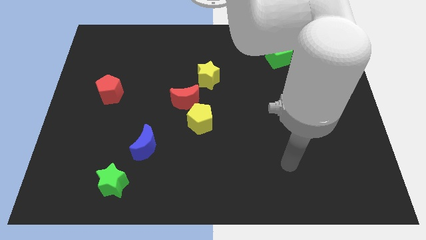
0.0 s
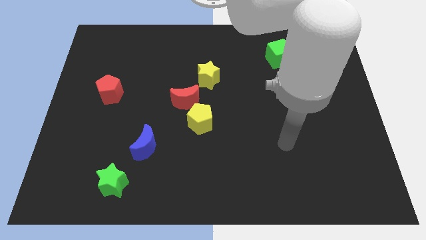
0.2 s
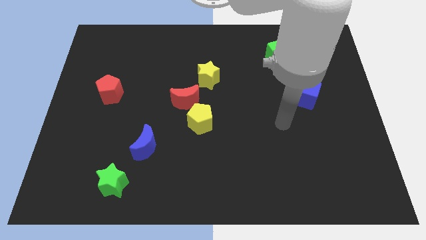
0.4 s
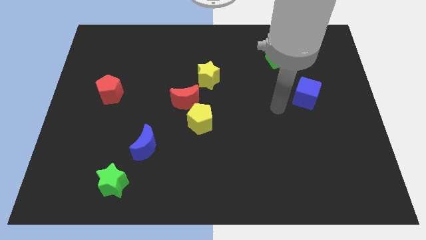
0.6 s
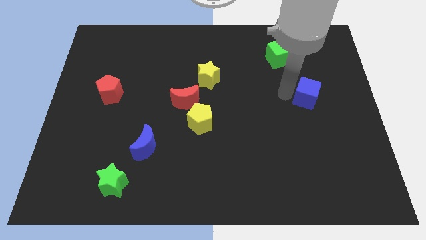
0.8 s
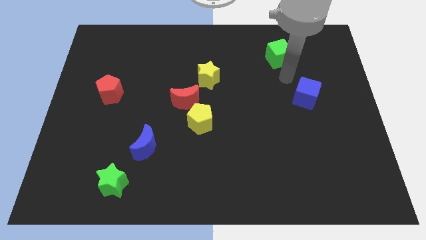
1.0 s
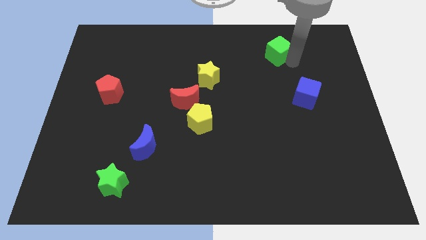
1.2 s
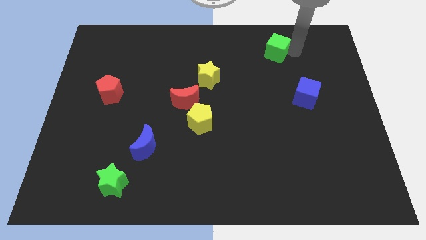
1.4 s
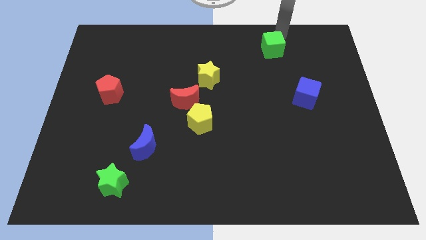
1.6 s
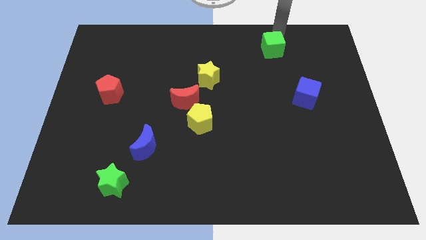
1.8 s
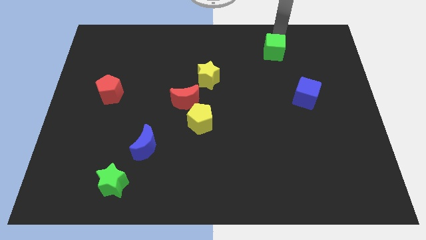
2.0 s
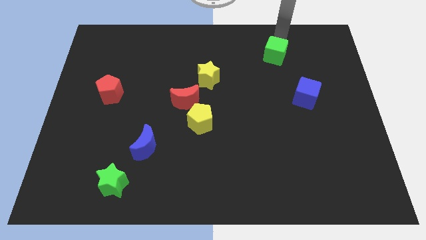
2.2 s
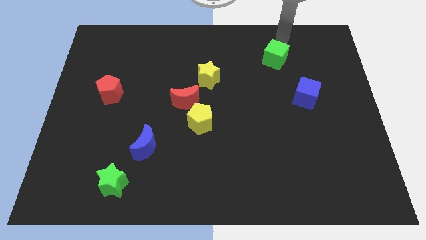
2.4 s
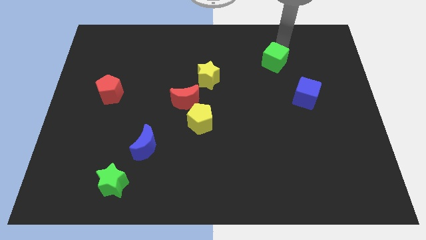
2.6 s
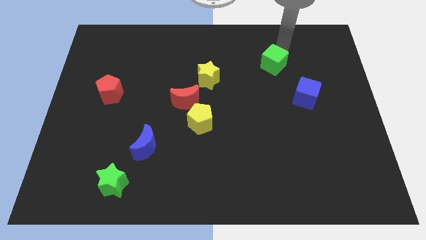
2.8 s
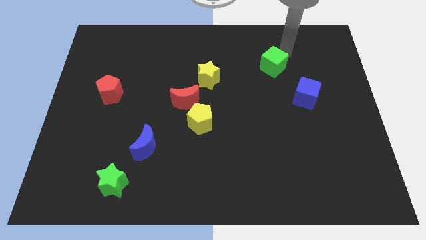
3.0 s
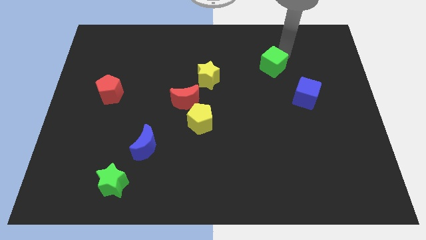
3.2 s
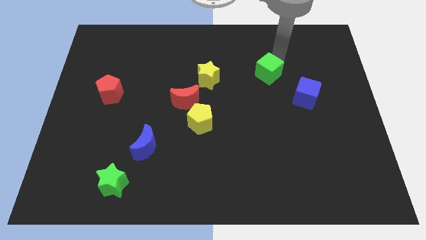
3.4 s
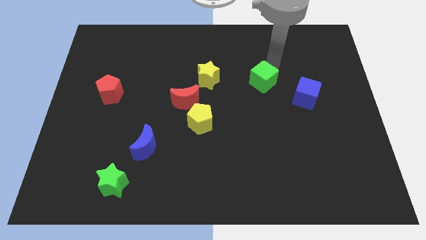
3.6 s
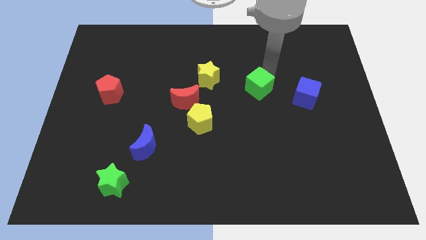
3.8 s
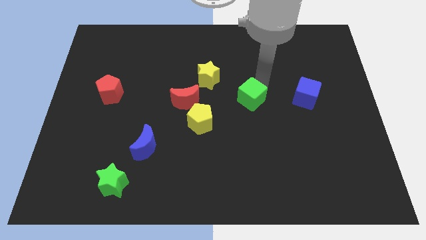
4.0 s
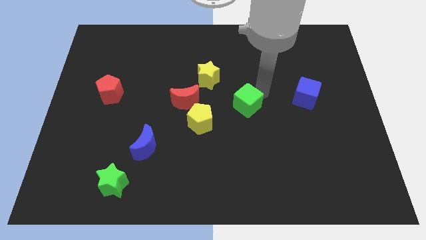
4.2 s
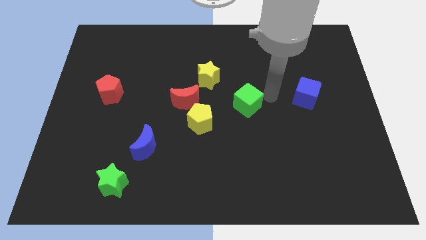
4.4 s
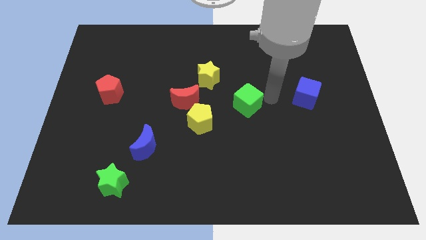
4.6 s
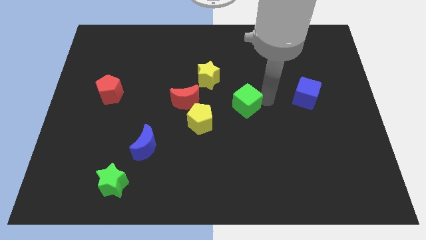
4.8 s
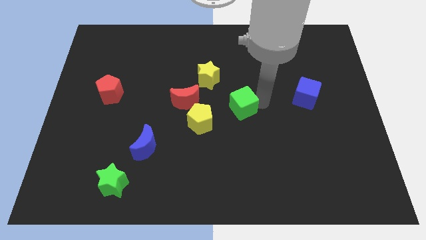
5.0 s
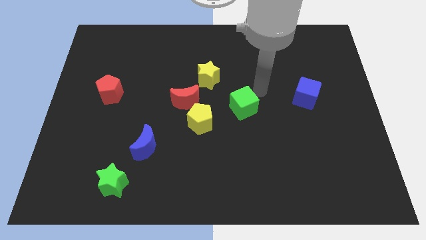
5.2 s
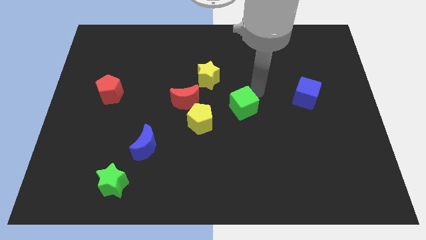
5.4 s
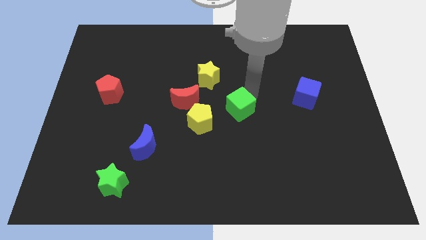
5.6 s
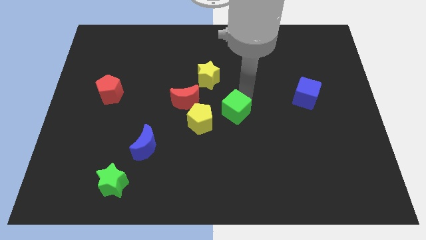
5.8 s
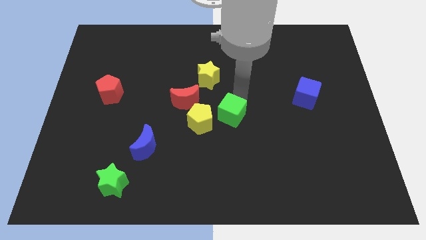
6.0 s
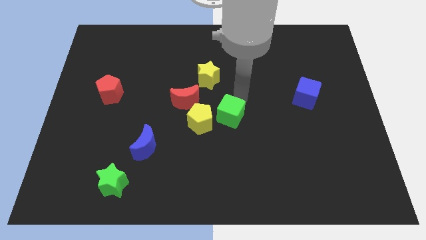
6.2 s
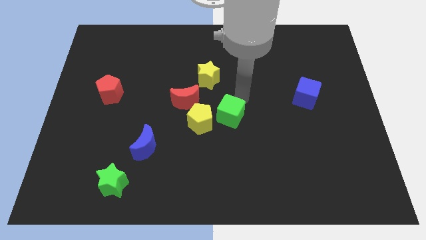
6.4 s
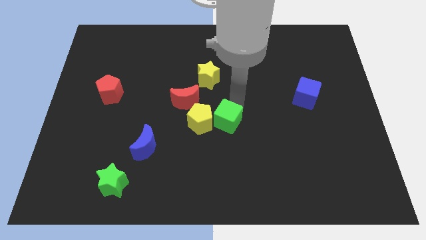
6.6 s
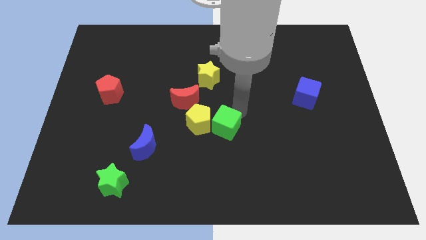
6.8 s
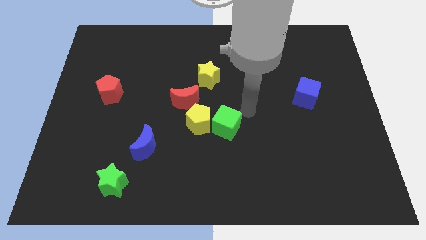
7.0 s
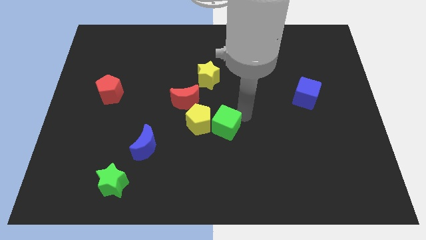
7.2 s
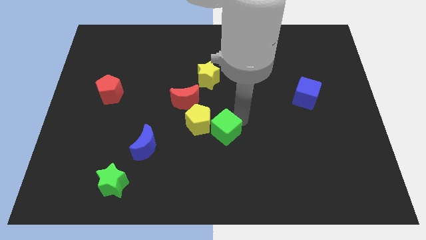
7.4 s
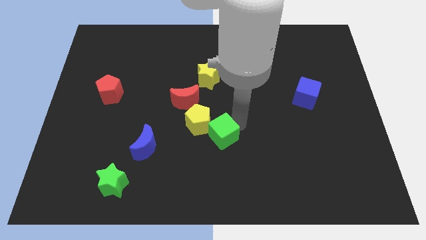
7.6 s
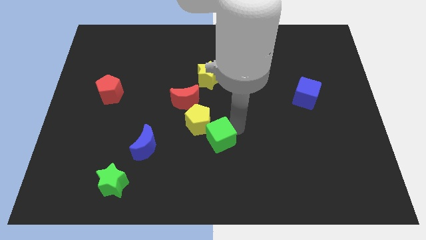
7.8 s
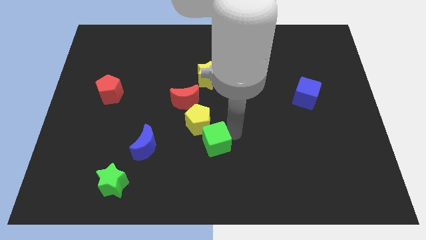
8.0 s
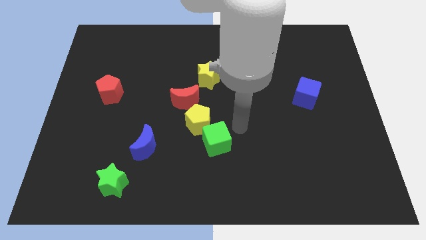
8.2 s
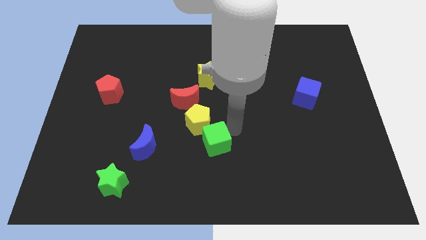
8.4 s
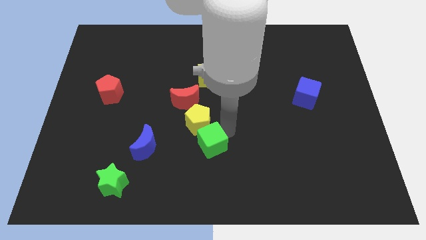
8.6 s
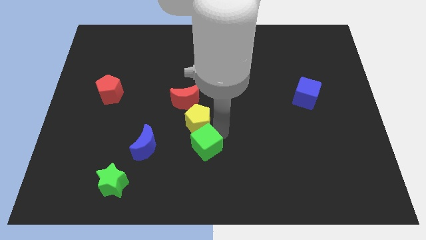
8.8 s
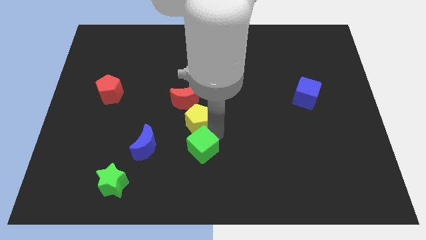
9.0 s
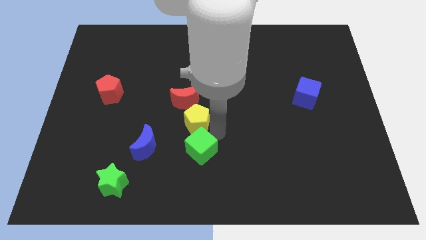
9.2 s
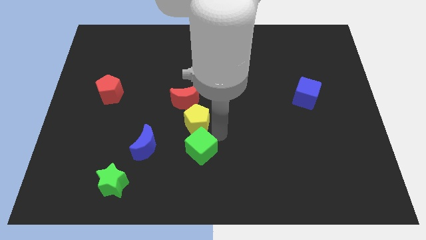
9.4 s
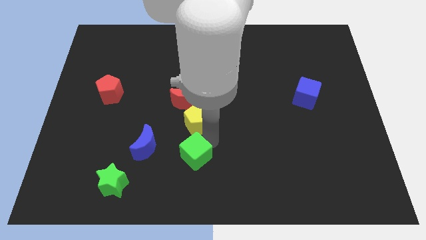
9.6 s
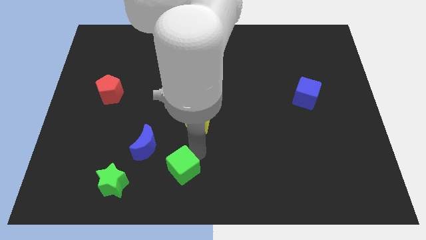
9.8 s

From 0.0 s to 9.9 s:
slide the green cube to the right of the green star

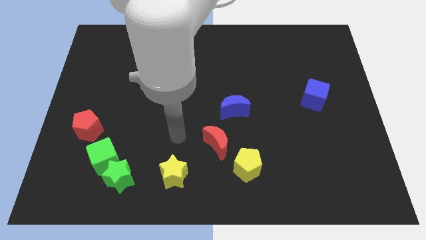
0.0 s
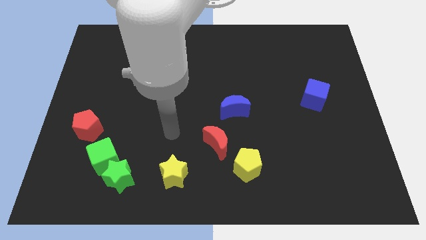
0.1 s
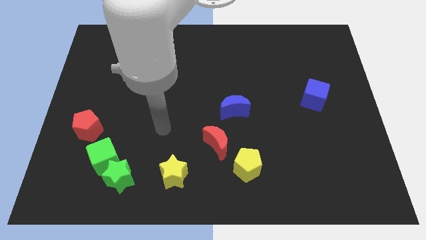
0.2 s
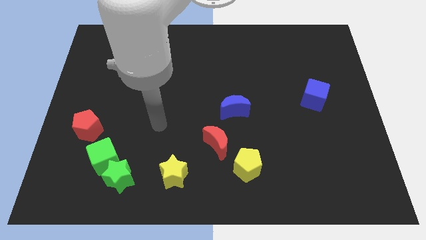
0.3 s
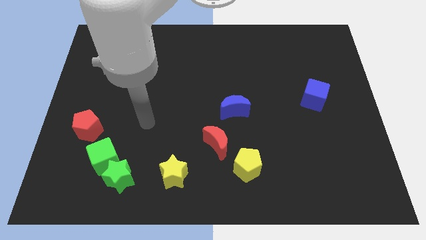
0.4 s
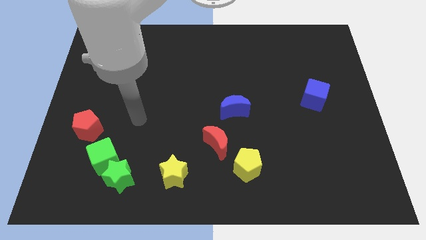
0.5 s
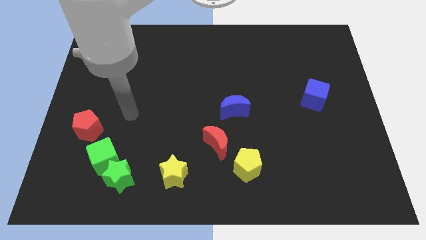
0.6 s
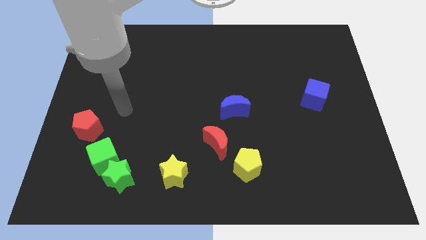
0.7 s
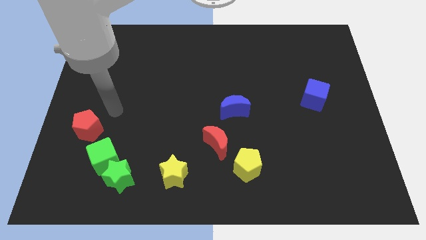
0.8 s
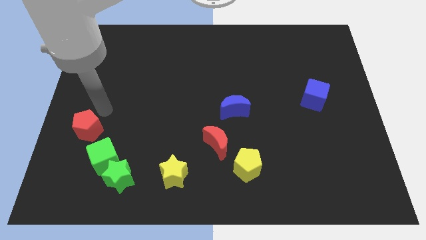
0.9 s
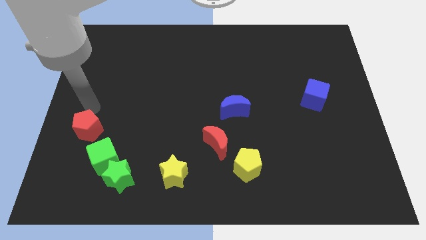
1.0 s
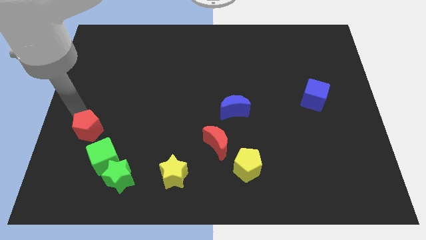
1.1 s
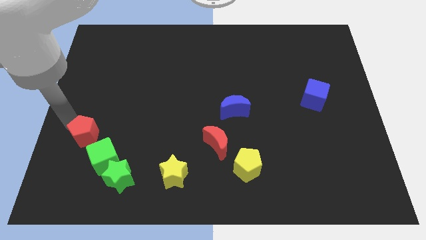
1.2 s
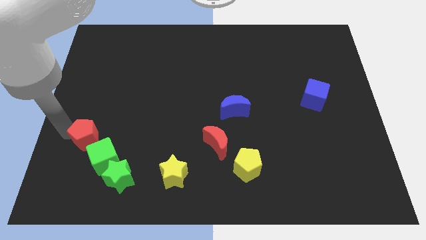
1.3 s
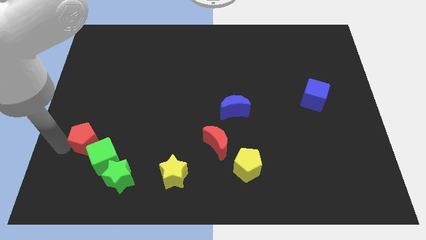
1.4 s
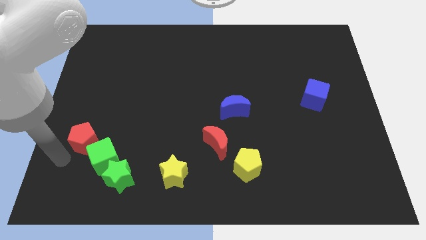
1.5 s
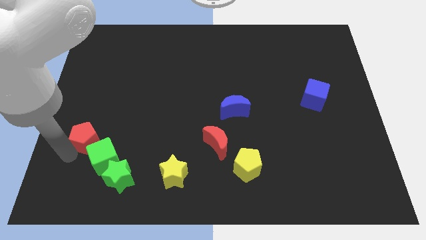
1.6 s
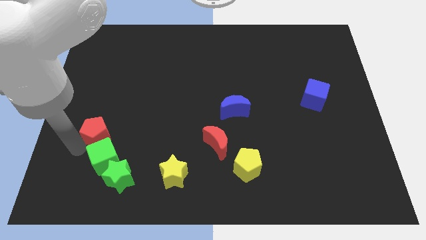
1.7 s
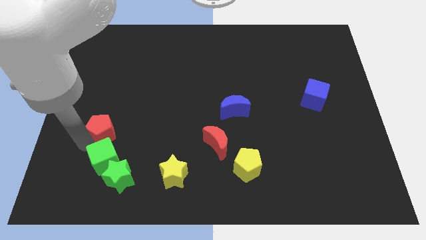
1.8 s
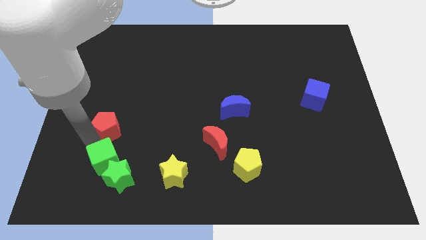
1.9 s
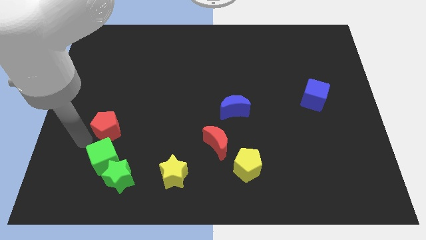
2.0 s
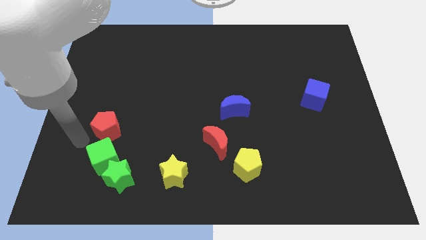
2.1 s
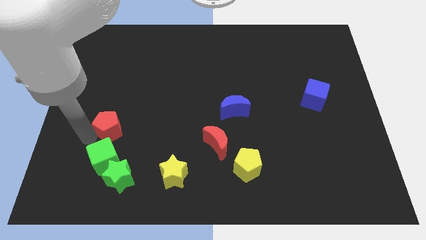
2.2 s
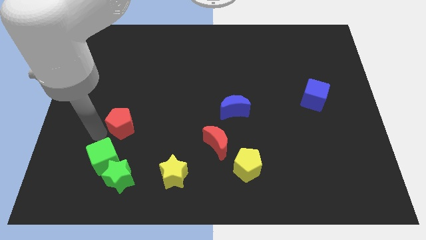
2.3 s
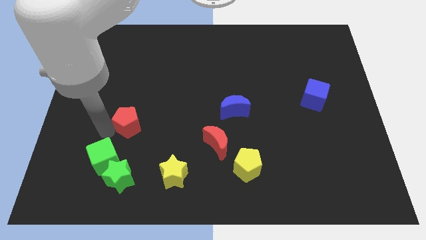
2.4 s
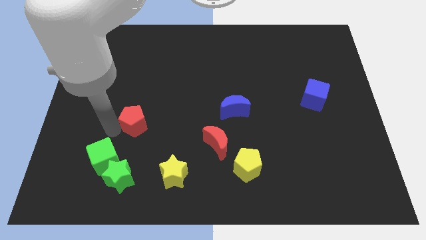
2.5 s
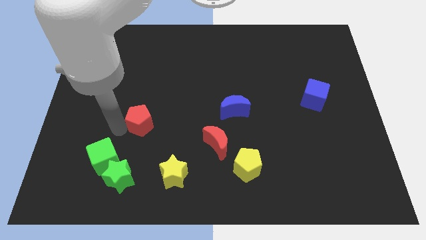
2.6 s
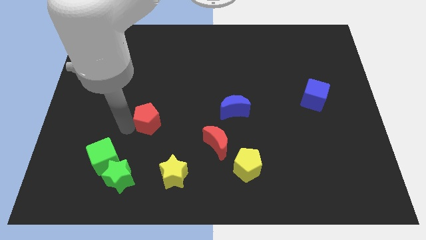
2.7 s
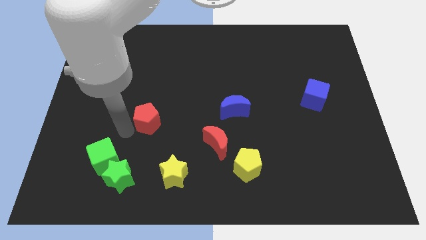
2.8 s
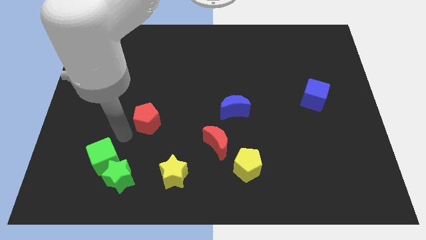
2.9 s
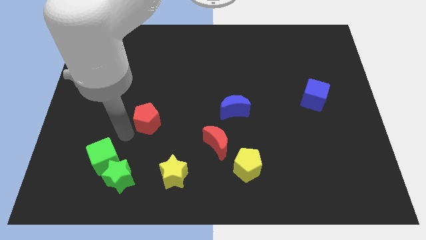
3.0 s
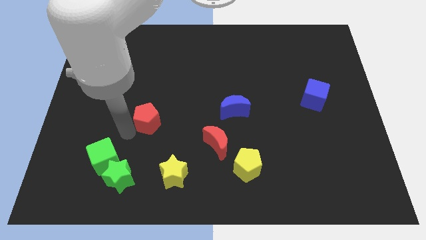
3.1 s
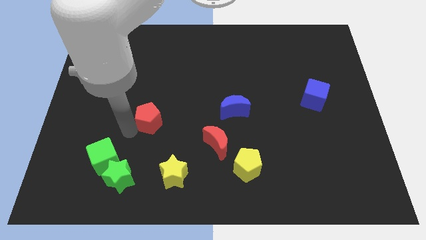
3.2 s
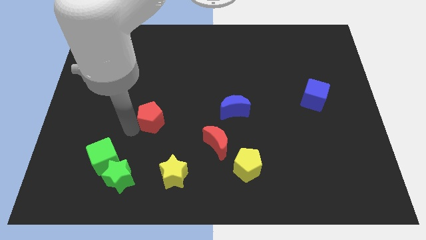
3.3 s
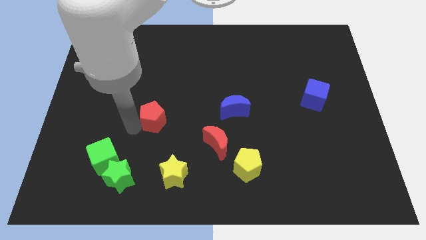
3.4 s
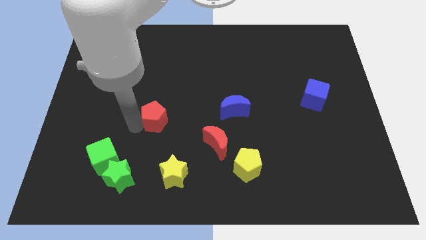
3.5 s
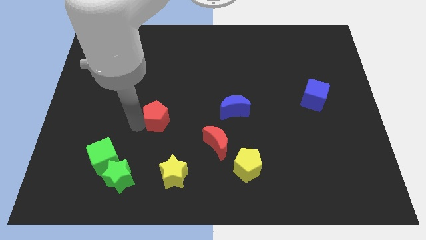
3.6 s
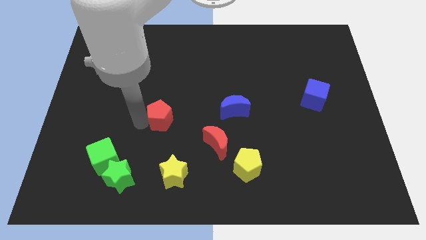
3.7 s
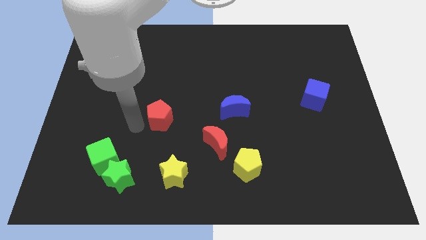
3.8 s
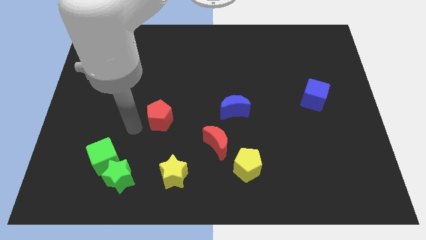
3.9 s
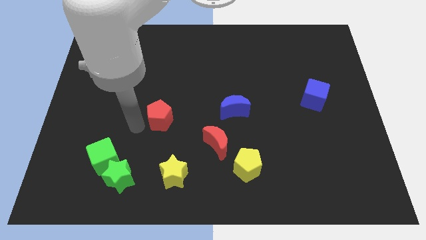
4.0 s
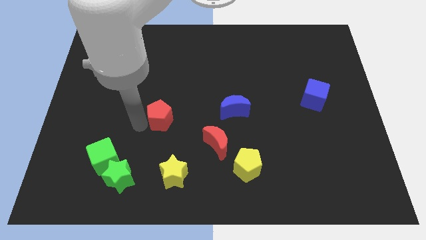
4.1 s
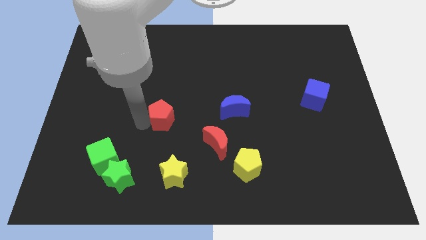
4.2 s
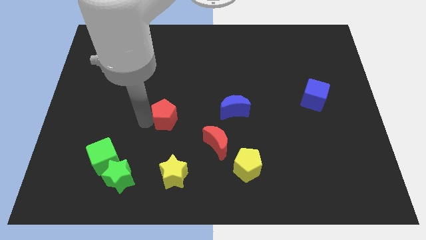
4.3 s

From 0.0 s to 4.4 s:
push the red pentagon to the left side of the blue moon
